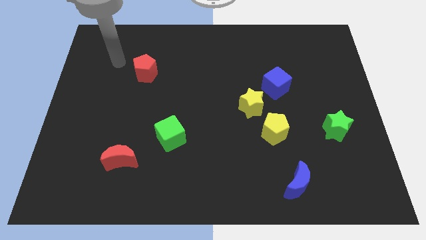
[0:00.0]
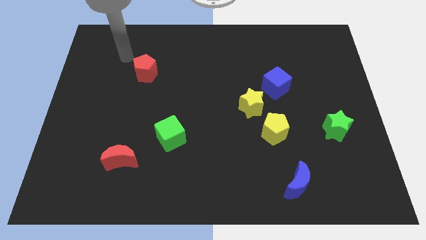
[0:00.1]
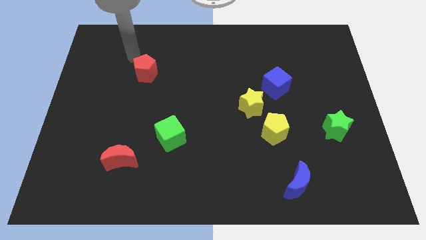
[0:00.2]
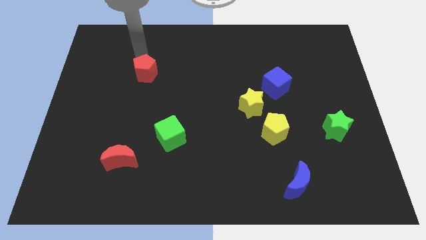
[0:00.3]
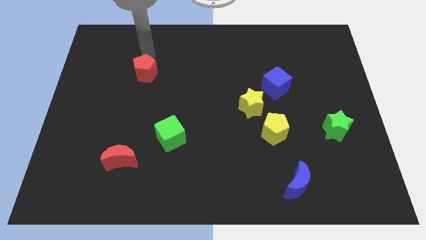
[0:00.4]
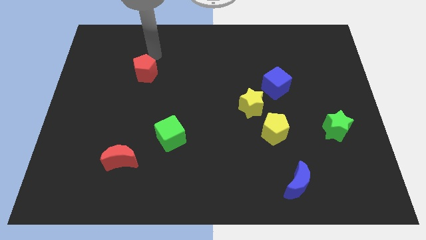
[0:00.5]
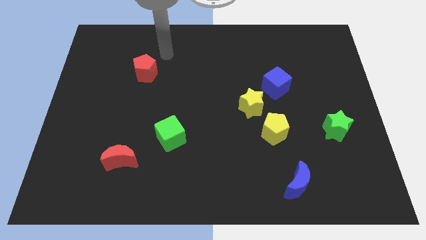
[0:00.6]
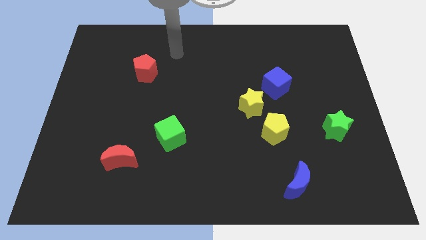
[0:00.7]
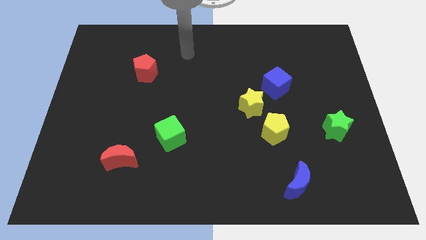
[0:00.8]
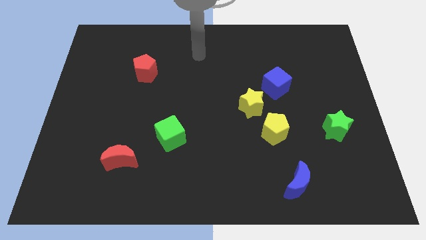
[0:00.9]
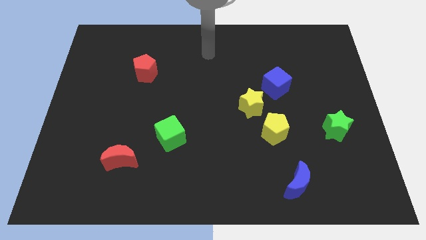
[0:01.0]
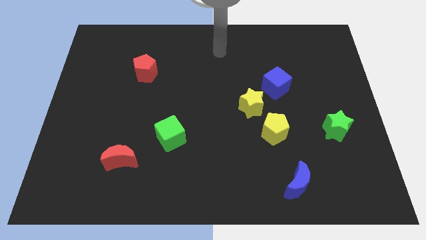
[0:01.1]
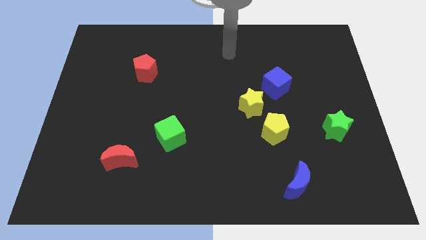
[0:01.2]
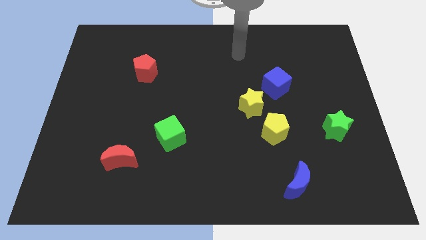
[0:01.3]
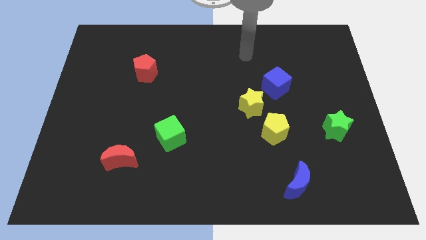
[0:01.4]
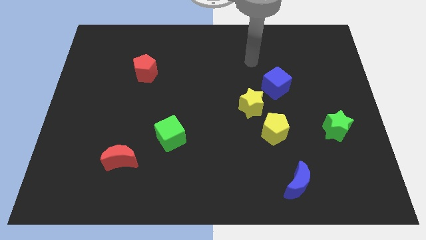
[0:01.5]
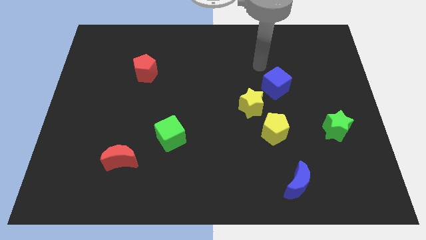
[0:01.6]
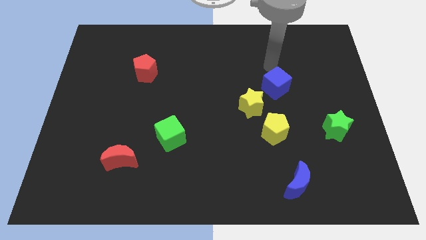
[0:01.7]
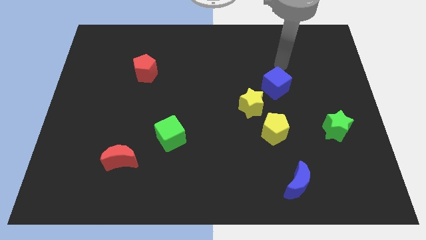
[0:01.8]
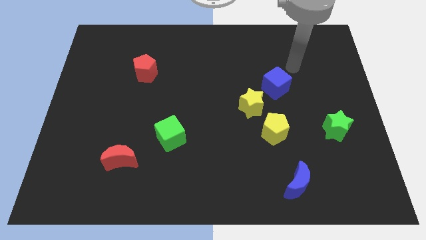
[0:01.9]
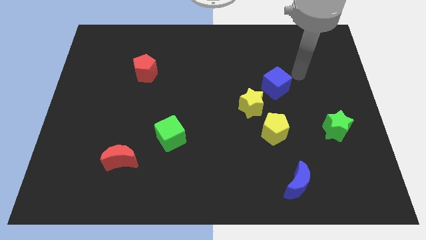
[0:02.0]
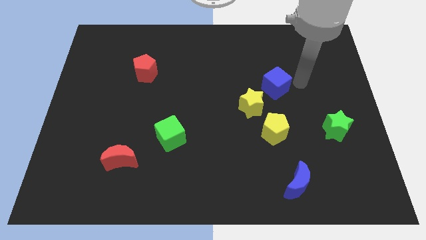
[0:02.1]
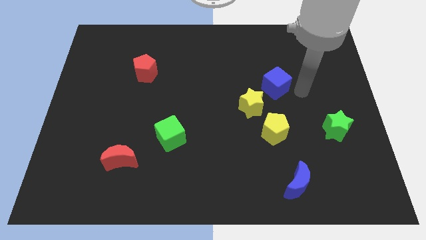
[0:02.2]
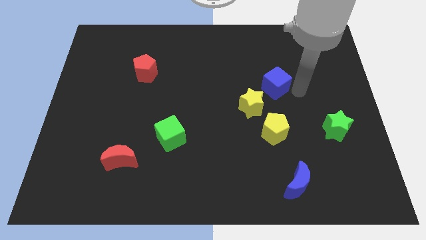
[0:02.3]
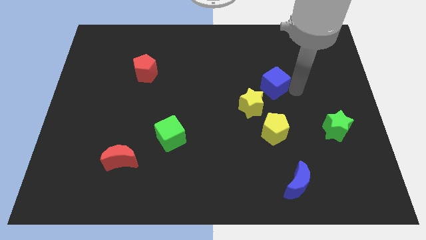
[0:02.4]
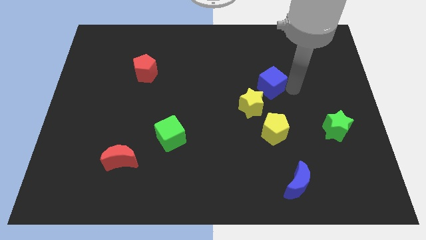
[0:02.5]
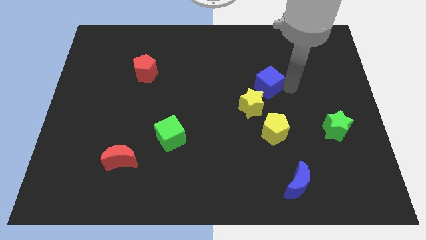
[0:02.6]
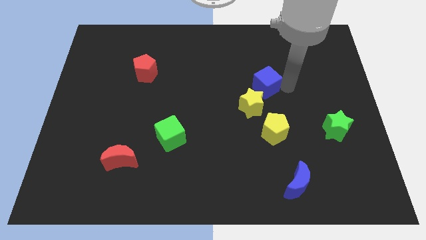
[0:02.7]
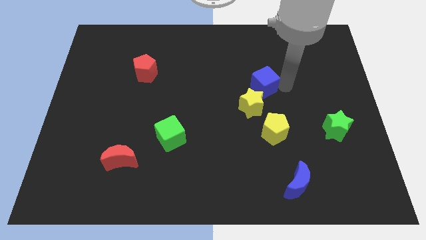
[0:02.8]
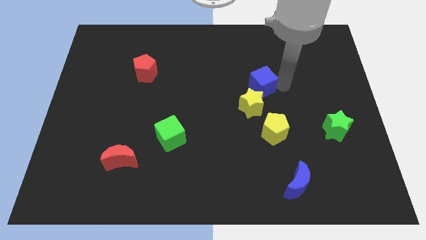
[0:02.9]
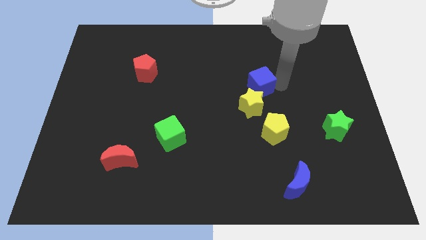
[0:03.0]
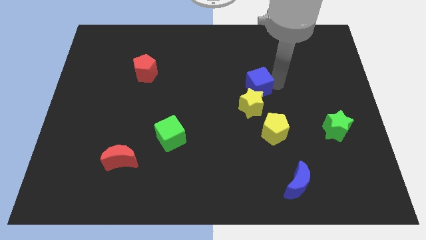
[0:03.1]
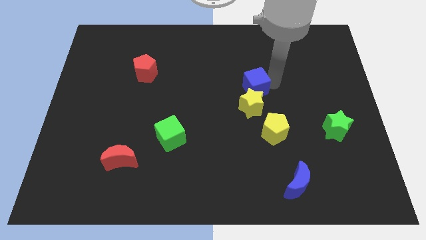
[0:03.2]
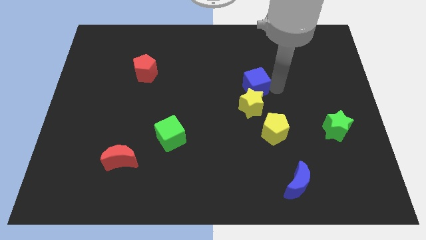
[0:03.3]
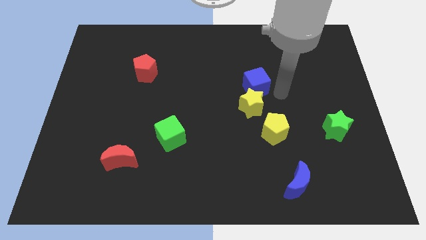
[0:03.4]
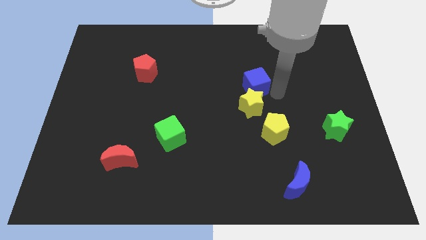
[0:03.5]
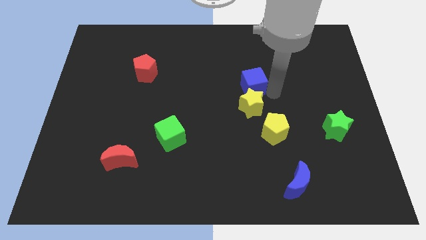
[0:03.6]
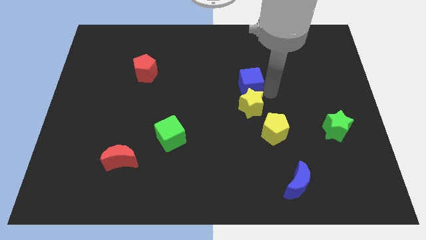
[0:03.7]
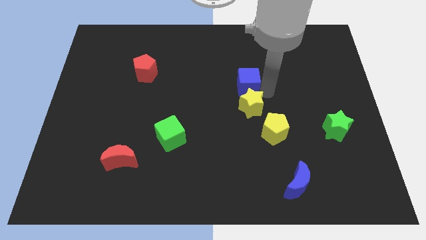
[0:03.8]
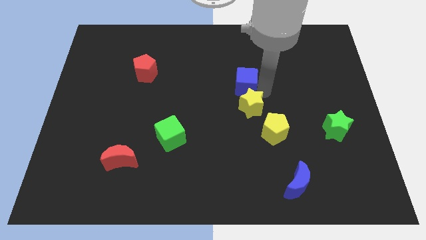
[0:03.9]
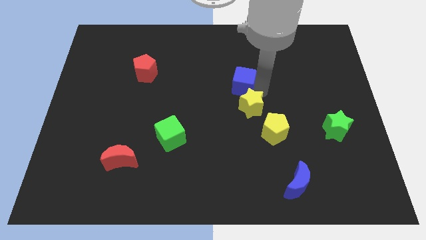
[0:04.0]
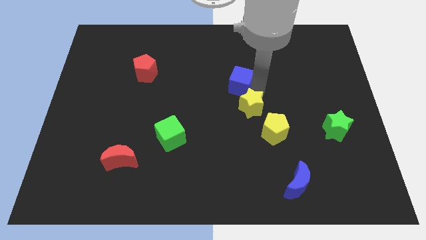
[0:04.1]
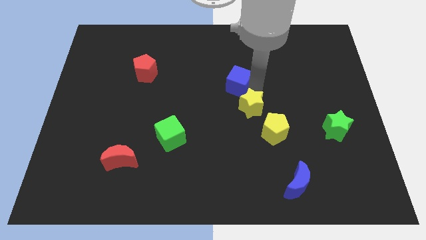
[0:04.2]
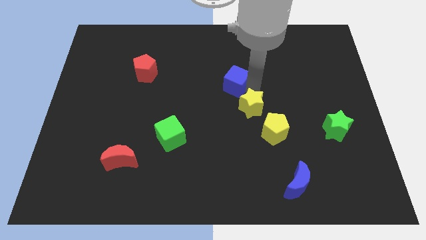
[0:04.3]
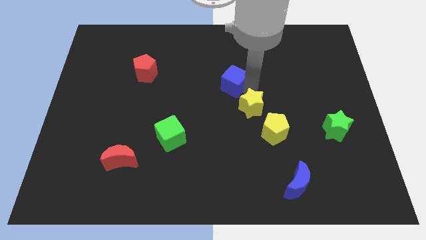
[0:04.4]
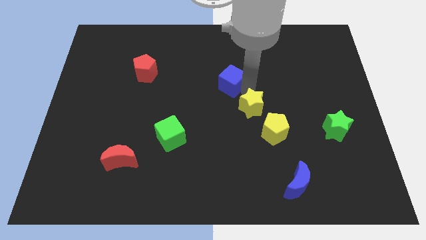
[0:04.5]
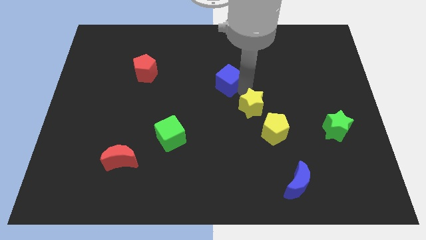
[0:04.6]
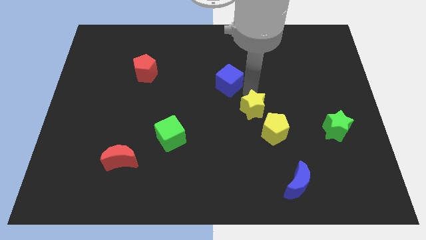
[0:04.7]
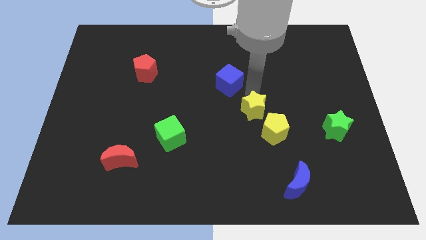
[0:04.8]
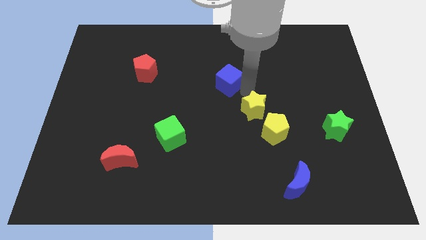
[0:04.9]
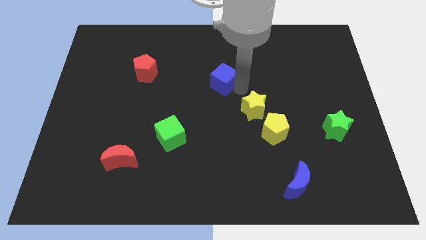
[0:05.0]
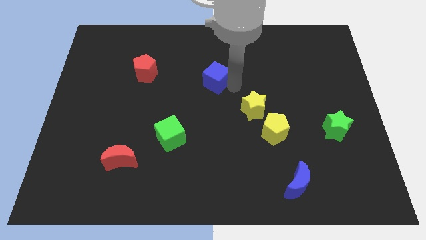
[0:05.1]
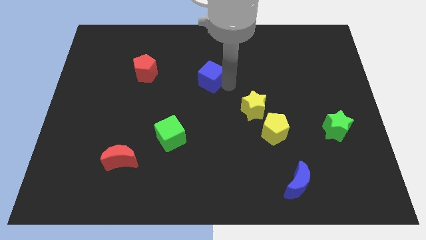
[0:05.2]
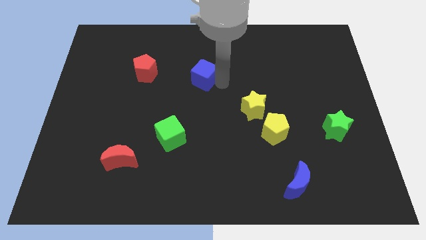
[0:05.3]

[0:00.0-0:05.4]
push the blue cube to the right side of the red pentagon

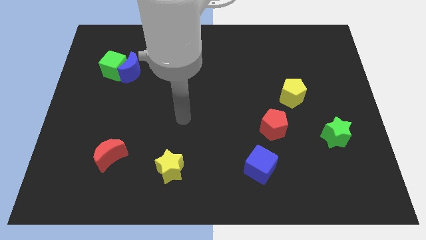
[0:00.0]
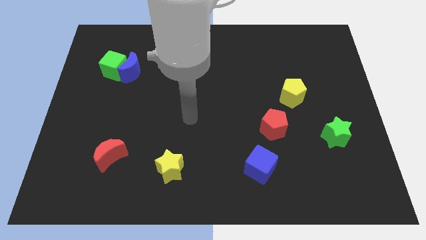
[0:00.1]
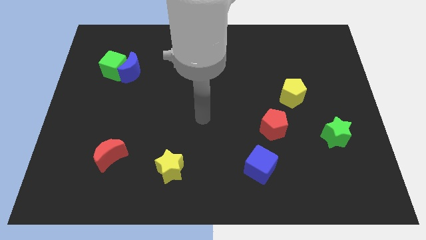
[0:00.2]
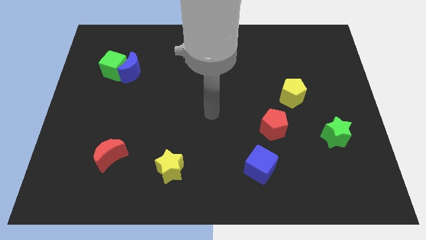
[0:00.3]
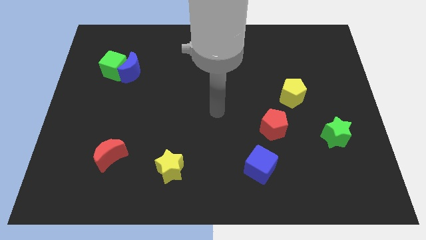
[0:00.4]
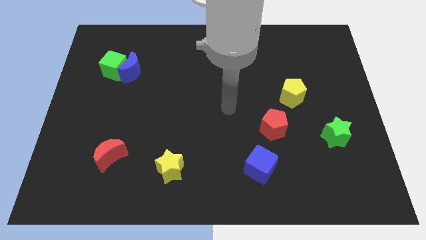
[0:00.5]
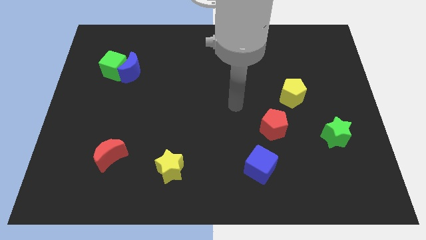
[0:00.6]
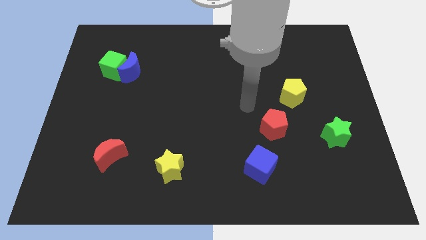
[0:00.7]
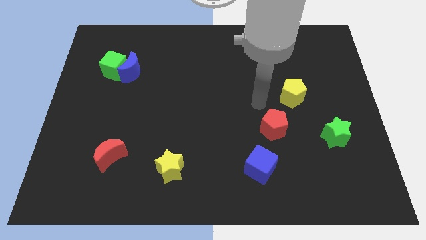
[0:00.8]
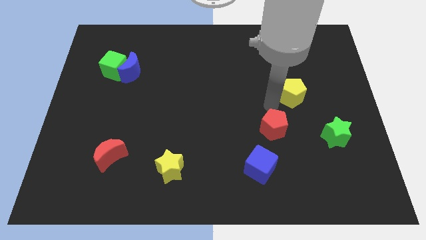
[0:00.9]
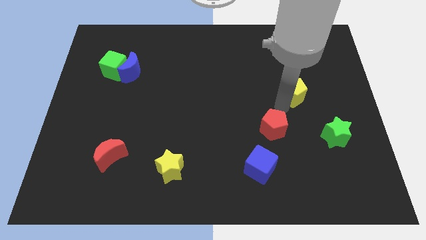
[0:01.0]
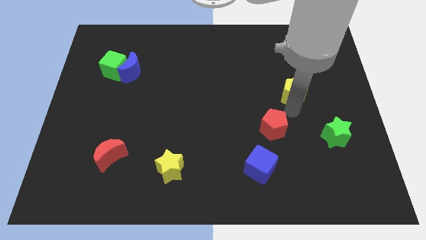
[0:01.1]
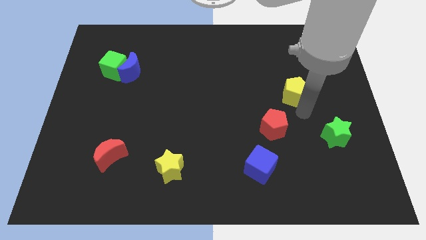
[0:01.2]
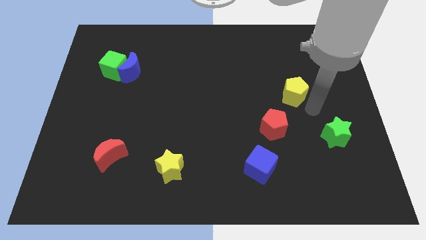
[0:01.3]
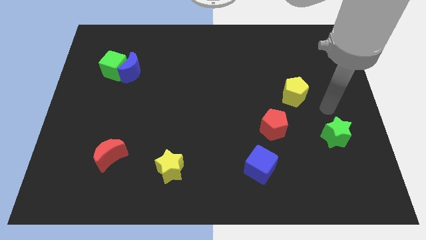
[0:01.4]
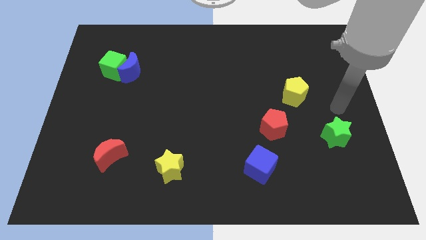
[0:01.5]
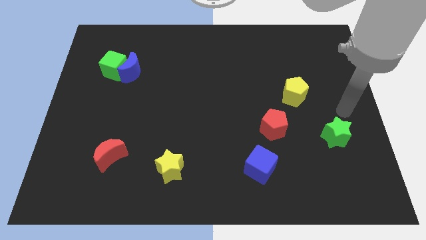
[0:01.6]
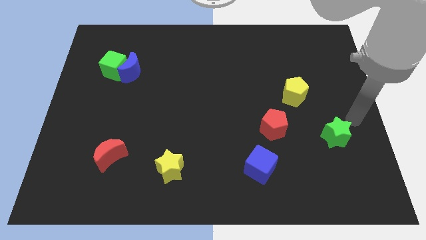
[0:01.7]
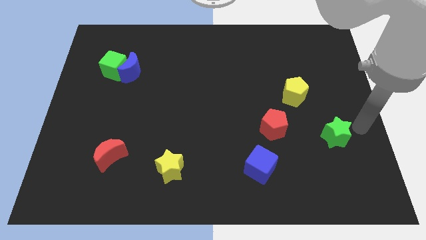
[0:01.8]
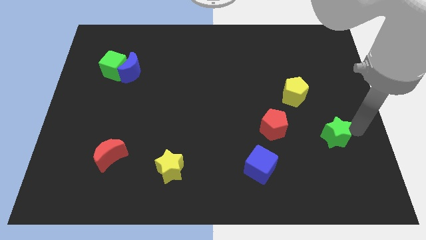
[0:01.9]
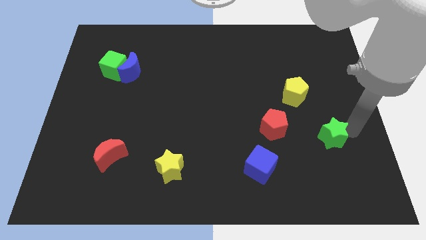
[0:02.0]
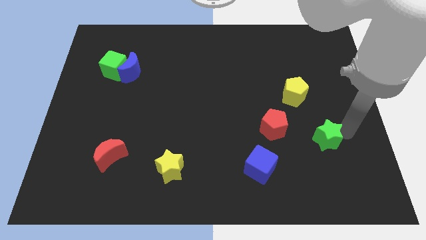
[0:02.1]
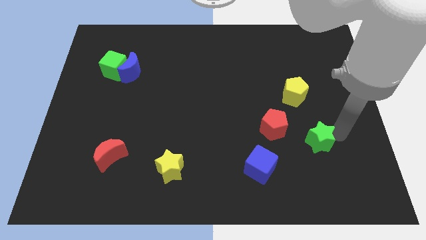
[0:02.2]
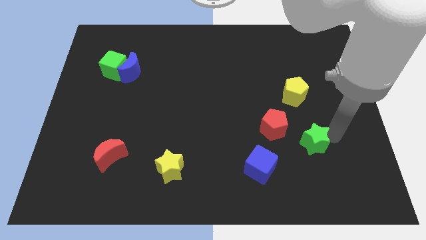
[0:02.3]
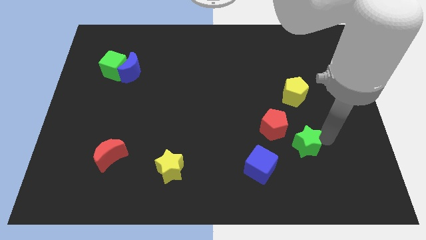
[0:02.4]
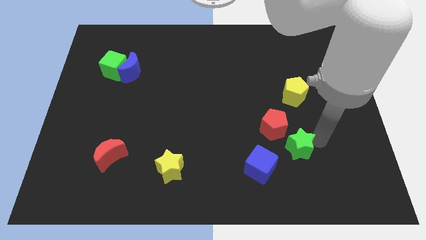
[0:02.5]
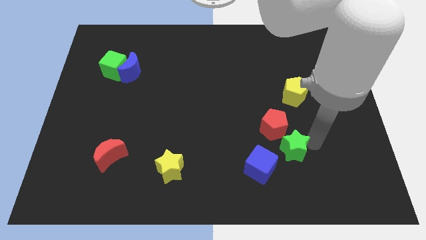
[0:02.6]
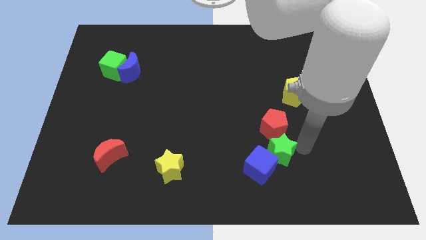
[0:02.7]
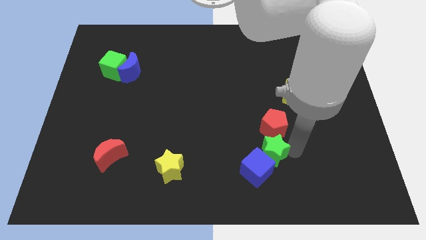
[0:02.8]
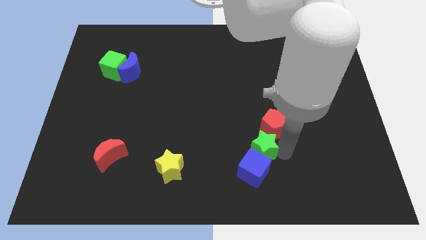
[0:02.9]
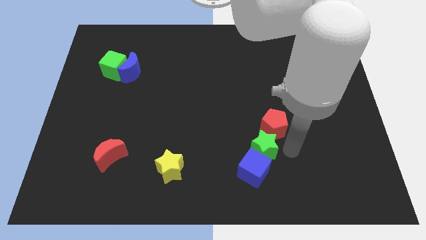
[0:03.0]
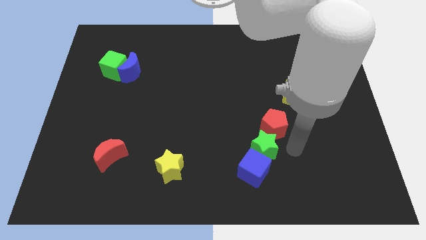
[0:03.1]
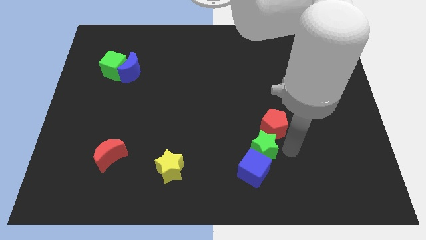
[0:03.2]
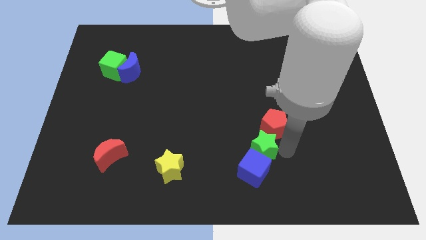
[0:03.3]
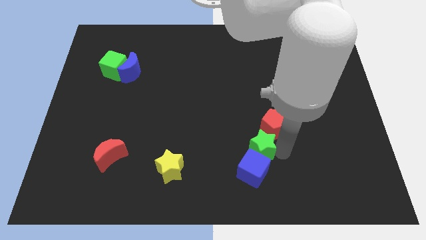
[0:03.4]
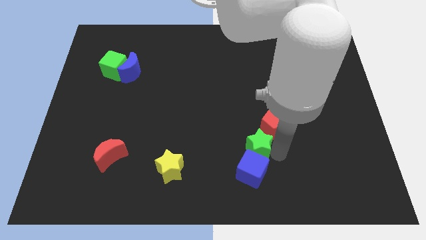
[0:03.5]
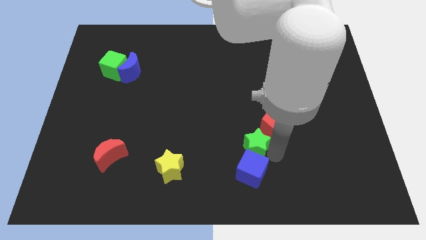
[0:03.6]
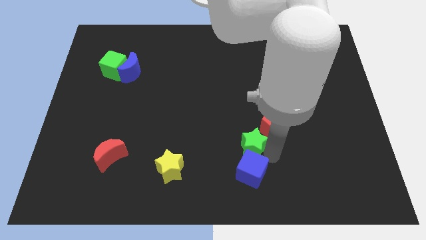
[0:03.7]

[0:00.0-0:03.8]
slide the green star diagonally up and to the left of the blue cube
